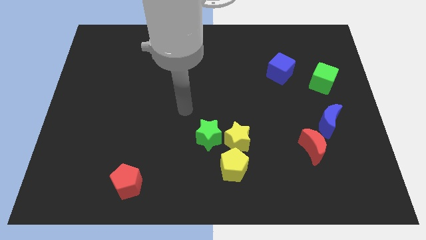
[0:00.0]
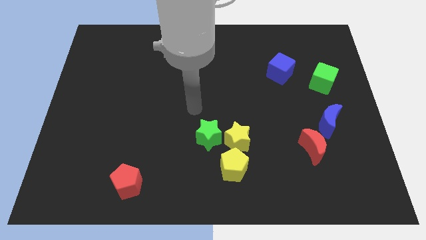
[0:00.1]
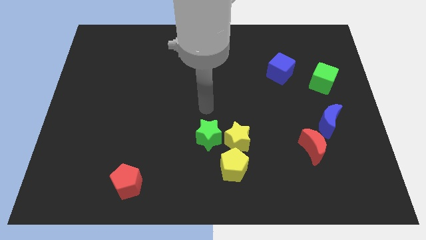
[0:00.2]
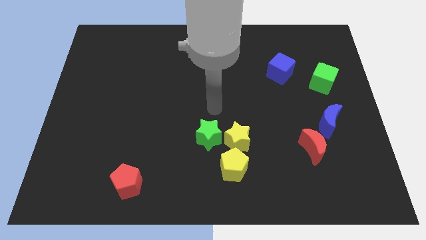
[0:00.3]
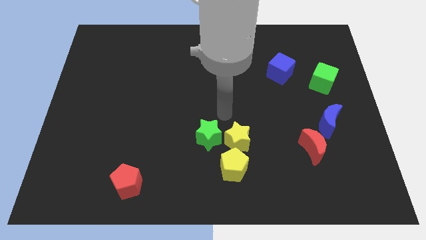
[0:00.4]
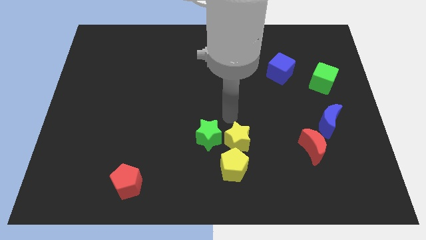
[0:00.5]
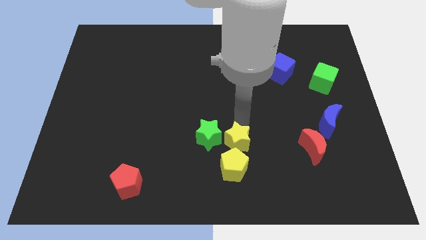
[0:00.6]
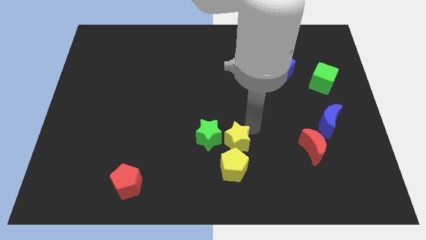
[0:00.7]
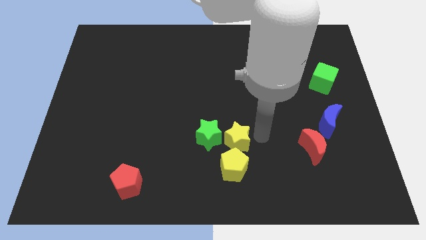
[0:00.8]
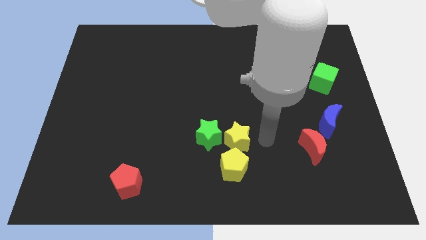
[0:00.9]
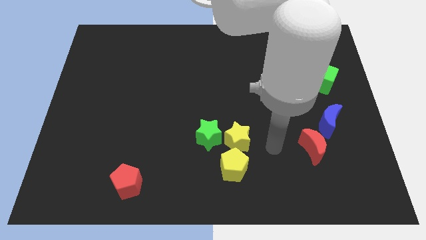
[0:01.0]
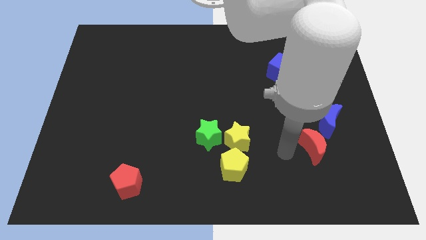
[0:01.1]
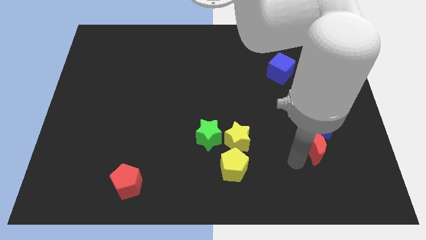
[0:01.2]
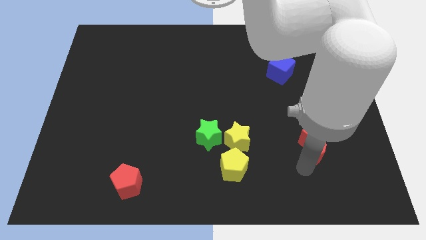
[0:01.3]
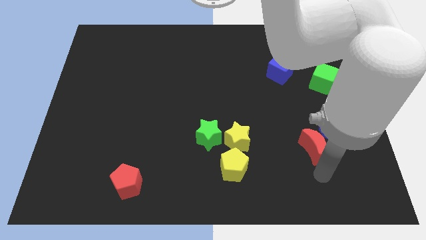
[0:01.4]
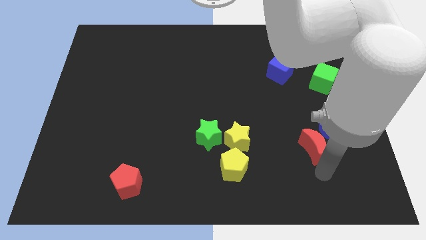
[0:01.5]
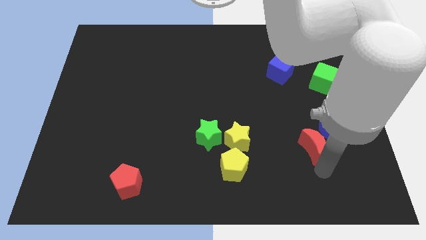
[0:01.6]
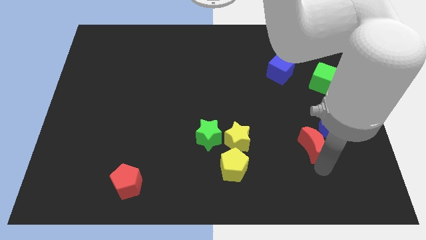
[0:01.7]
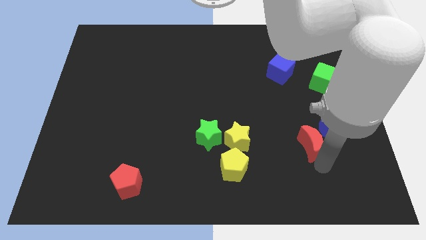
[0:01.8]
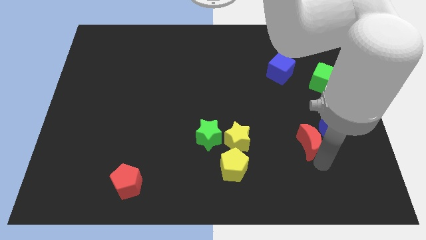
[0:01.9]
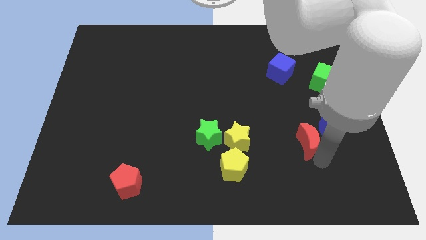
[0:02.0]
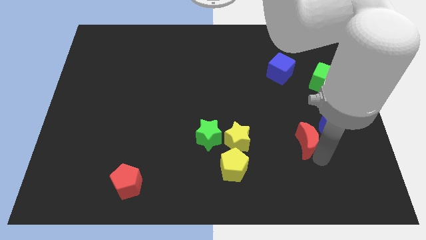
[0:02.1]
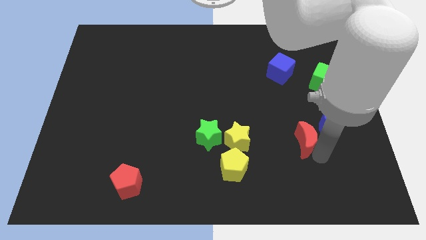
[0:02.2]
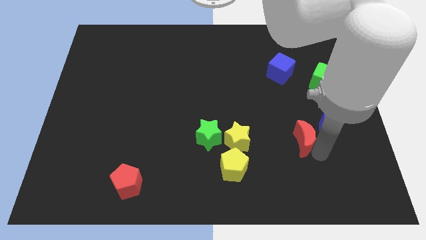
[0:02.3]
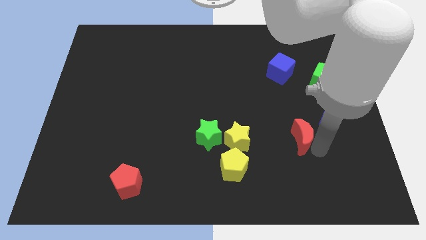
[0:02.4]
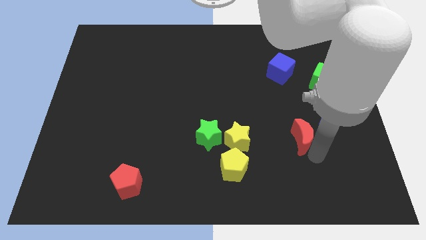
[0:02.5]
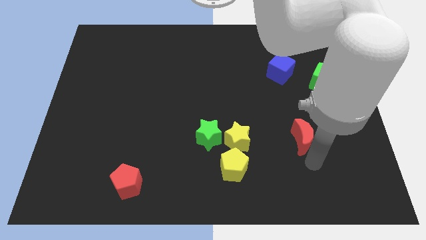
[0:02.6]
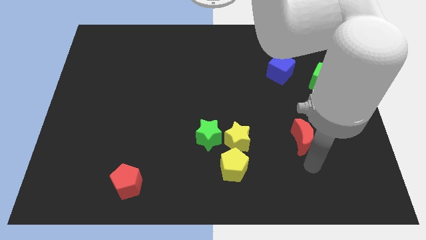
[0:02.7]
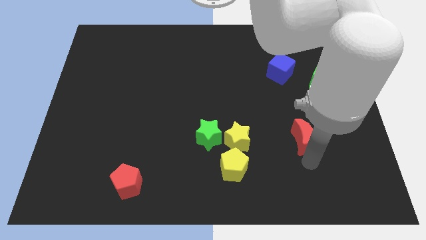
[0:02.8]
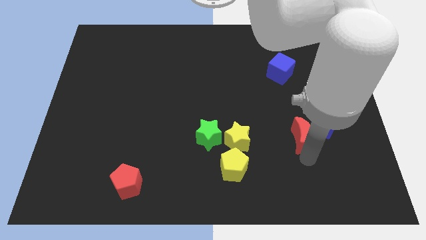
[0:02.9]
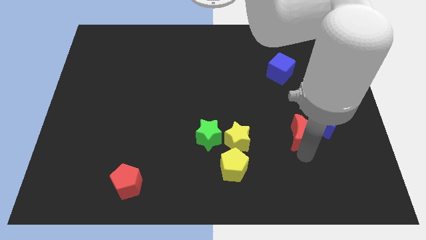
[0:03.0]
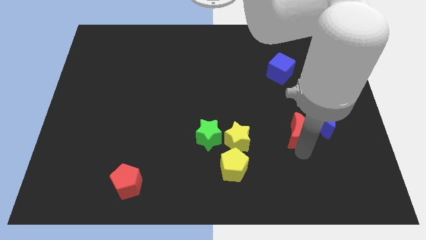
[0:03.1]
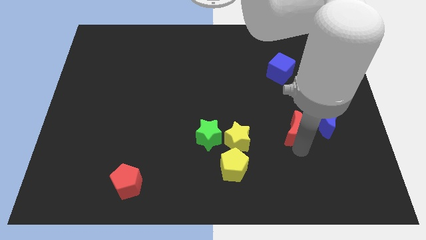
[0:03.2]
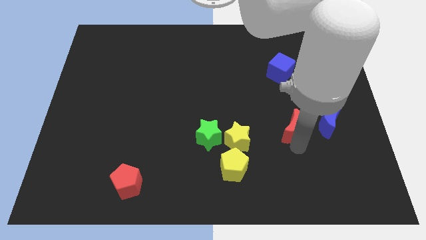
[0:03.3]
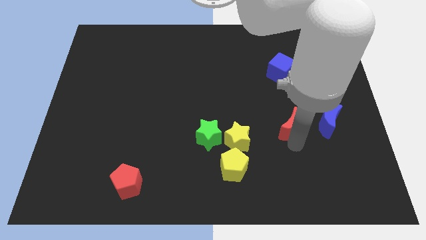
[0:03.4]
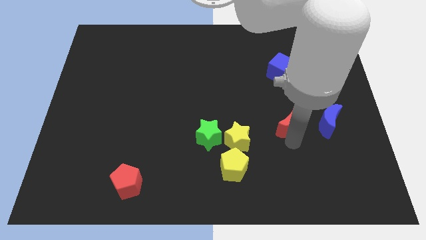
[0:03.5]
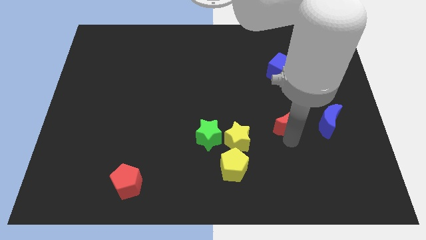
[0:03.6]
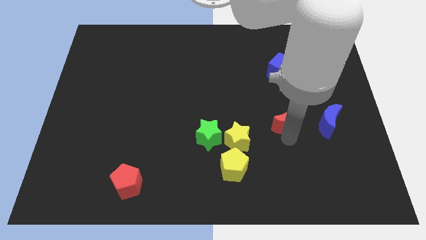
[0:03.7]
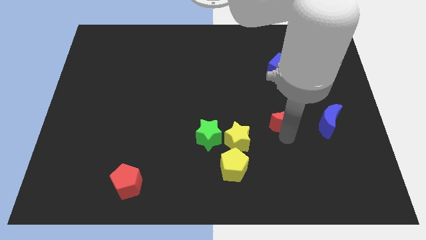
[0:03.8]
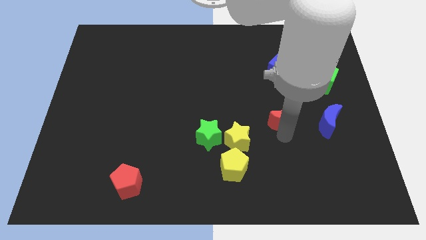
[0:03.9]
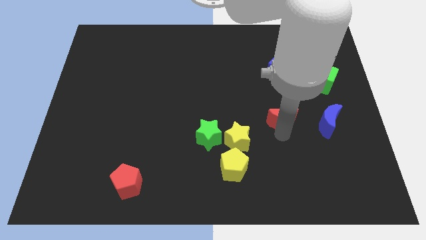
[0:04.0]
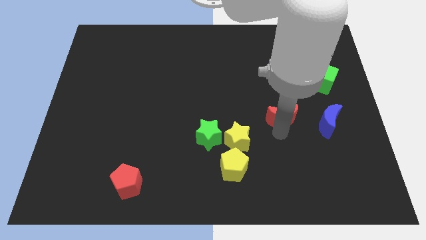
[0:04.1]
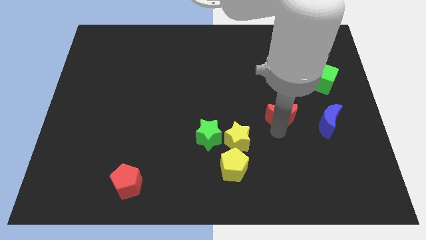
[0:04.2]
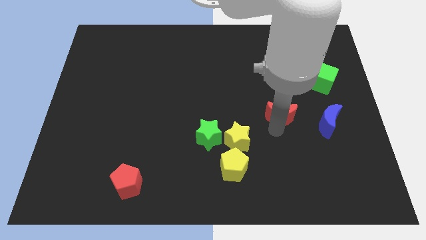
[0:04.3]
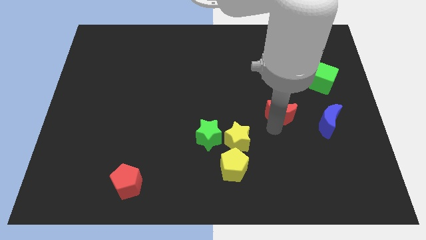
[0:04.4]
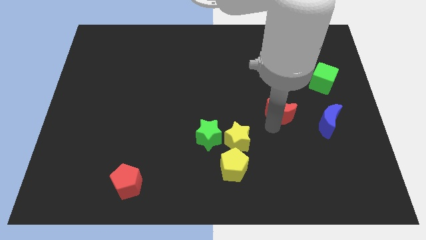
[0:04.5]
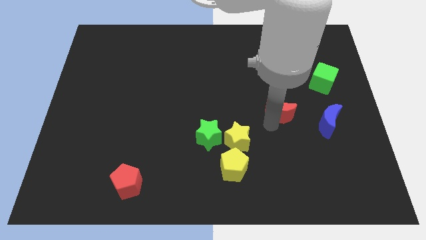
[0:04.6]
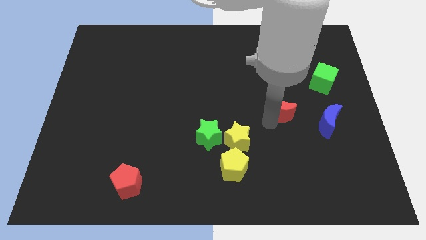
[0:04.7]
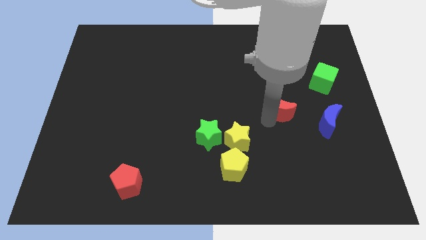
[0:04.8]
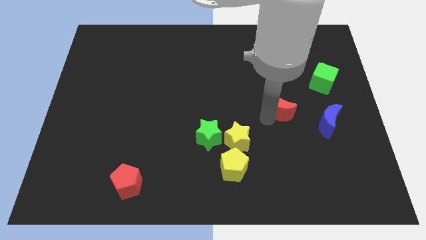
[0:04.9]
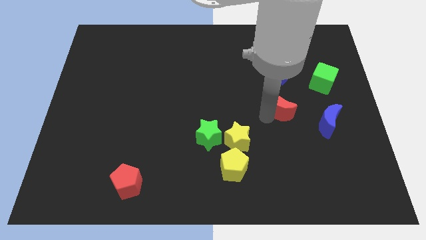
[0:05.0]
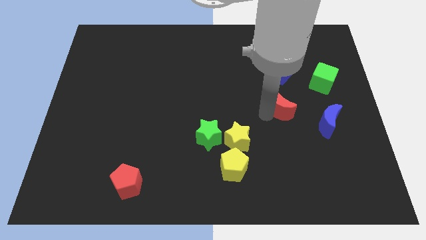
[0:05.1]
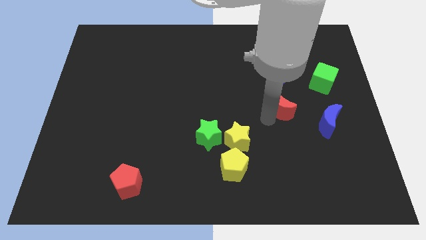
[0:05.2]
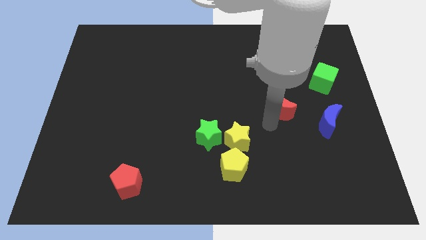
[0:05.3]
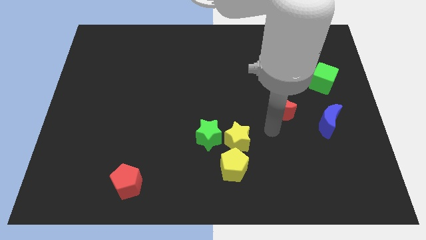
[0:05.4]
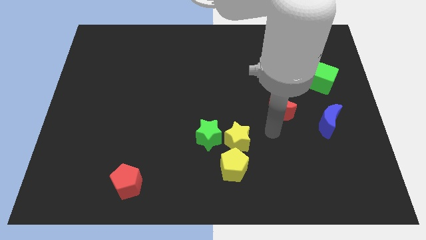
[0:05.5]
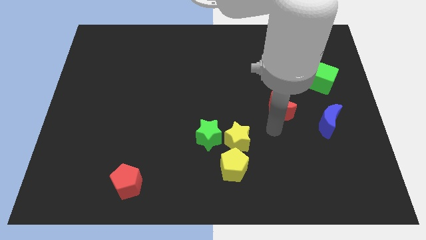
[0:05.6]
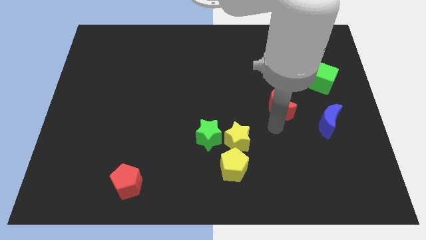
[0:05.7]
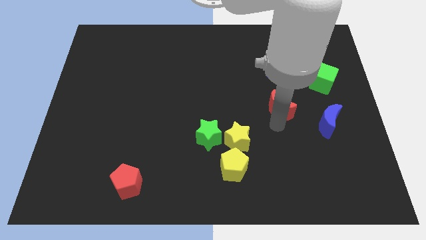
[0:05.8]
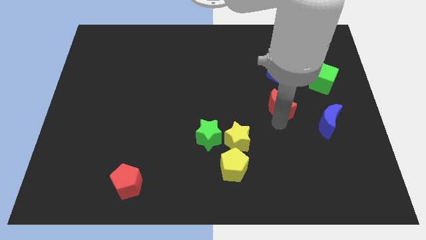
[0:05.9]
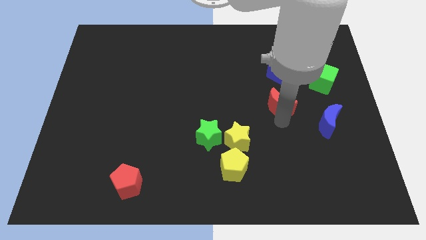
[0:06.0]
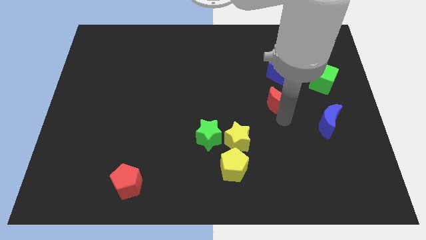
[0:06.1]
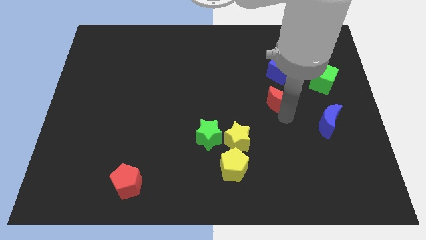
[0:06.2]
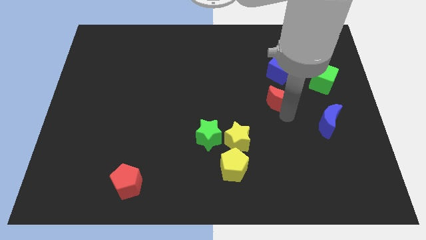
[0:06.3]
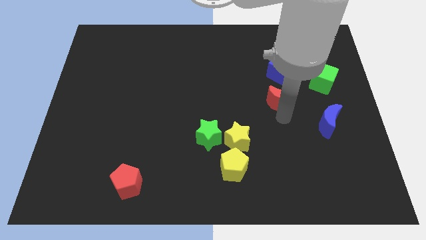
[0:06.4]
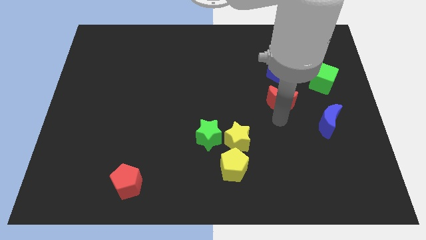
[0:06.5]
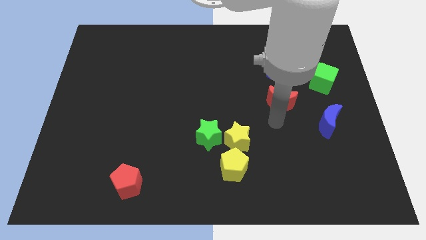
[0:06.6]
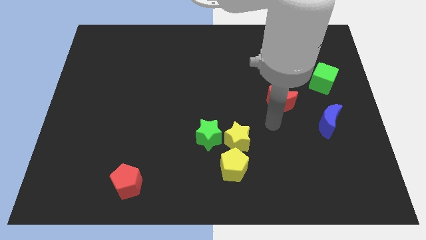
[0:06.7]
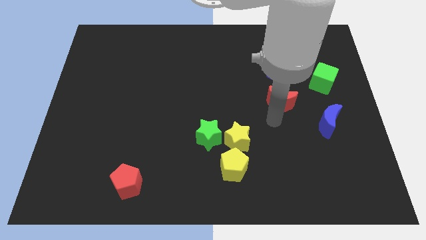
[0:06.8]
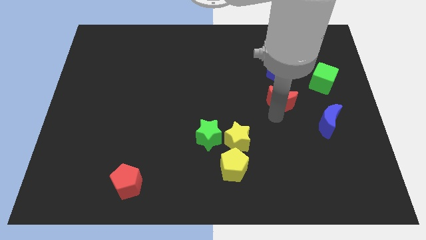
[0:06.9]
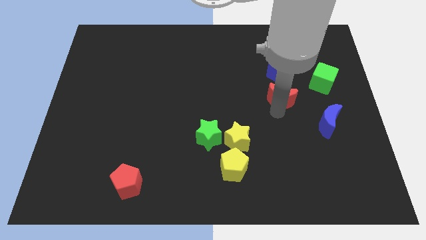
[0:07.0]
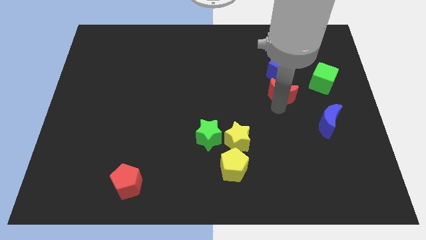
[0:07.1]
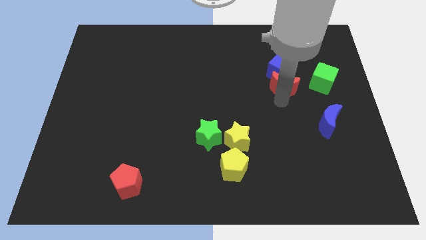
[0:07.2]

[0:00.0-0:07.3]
put the red moon close to the blue cube

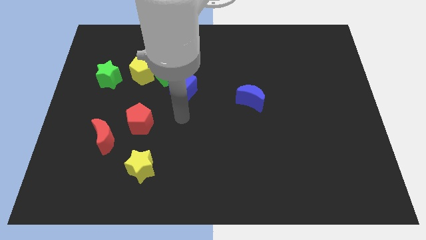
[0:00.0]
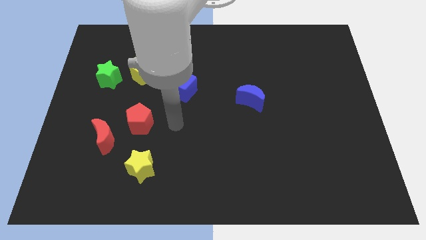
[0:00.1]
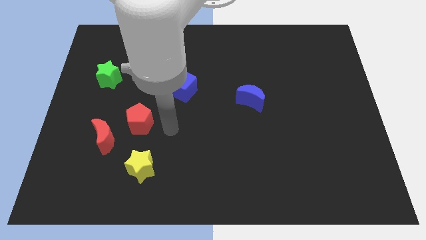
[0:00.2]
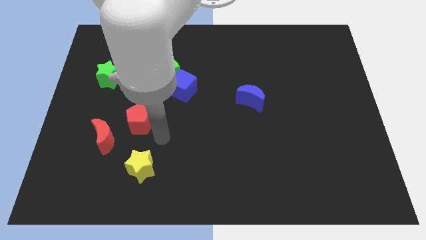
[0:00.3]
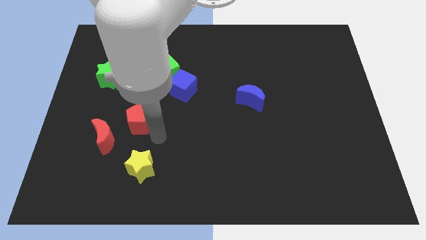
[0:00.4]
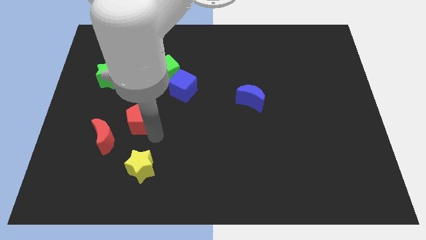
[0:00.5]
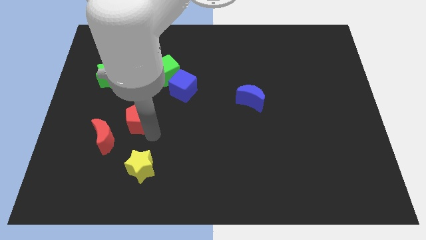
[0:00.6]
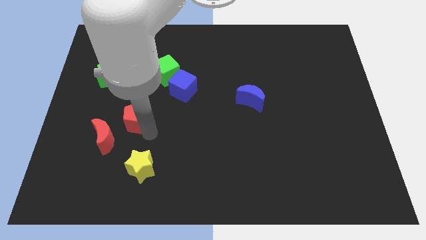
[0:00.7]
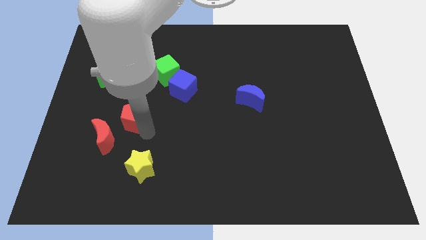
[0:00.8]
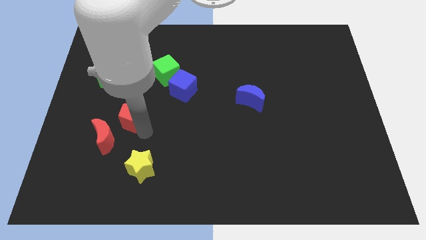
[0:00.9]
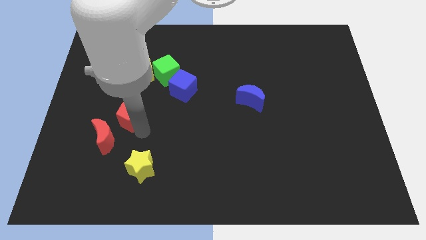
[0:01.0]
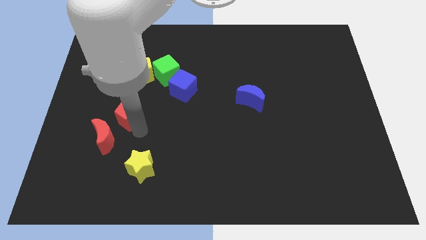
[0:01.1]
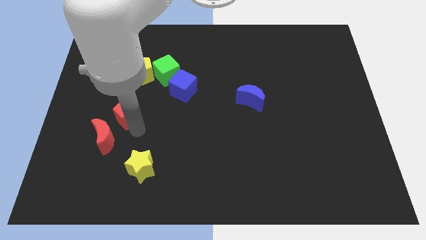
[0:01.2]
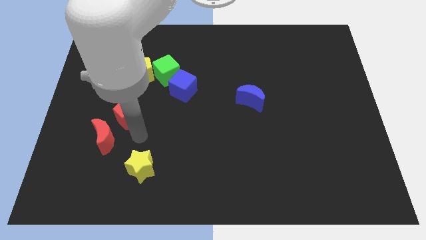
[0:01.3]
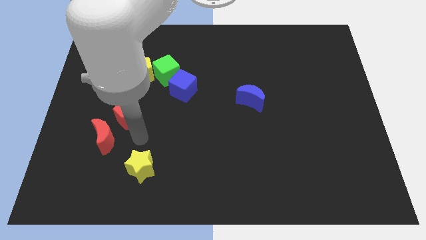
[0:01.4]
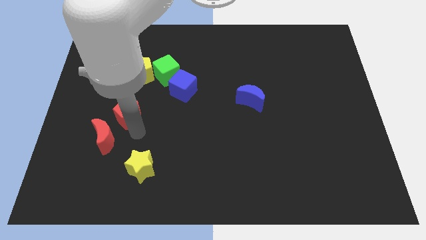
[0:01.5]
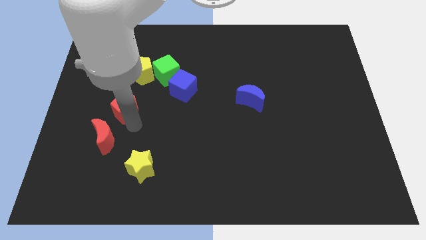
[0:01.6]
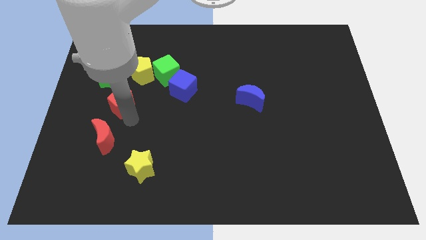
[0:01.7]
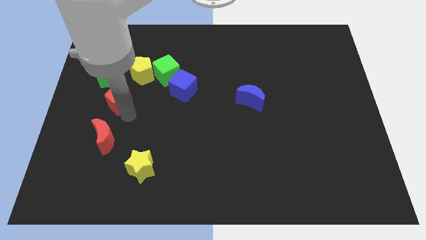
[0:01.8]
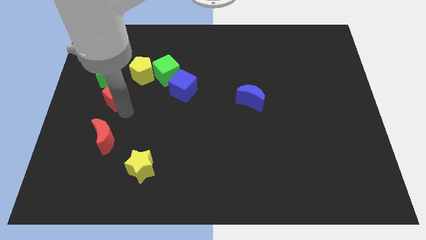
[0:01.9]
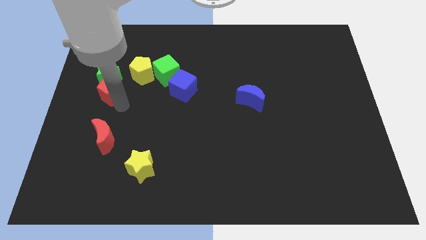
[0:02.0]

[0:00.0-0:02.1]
slide the red pentagon next to the green star
